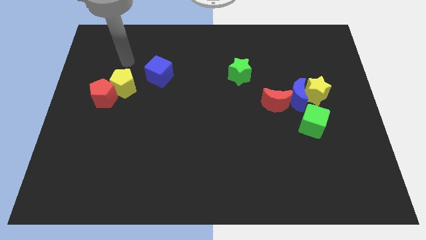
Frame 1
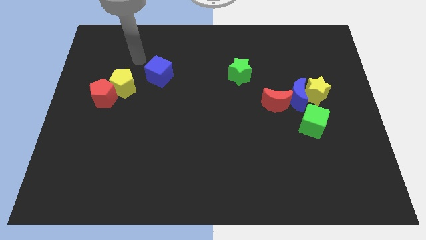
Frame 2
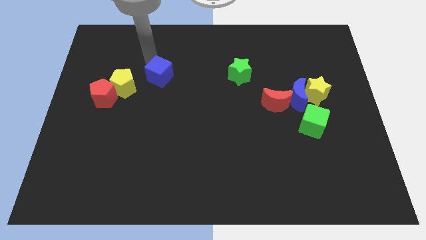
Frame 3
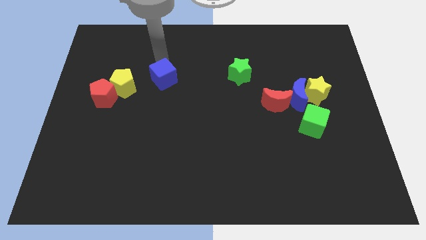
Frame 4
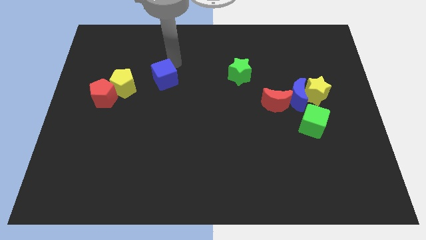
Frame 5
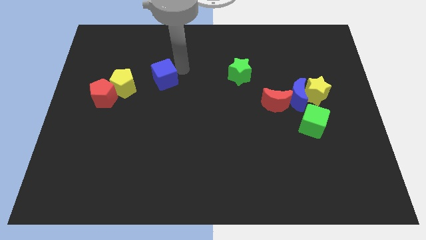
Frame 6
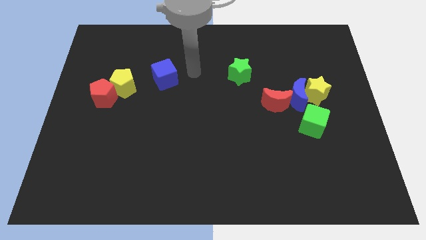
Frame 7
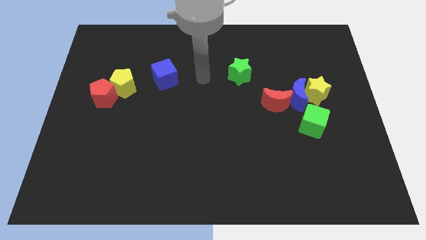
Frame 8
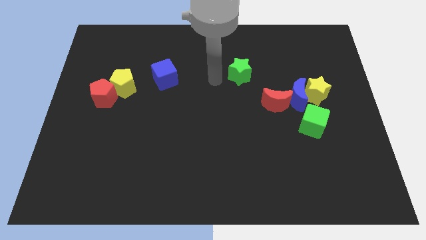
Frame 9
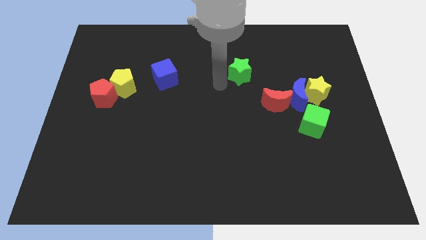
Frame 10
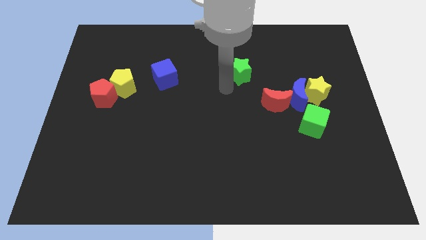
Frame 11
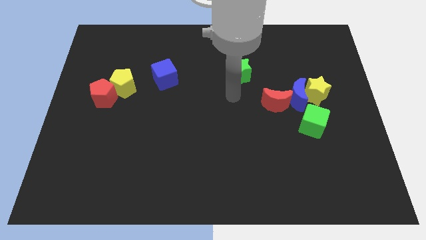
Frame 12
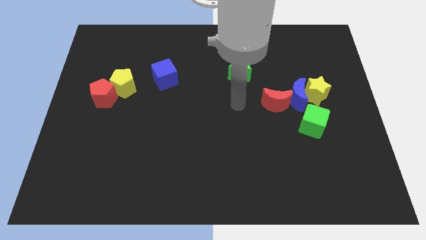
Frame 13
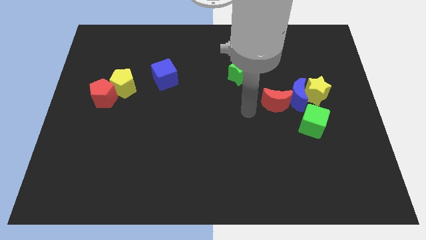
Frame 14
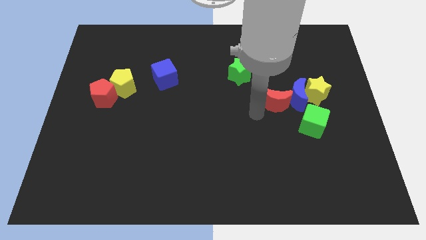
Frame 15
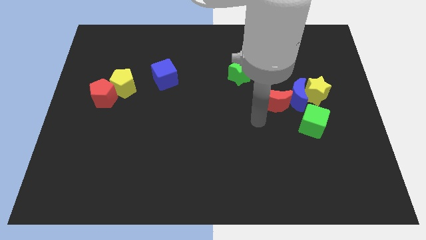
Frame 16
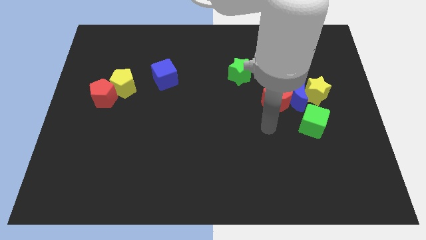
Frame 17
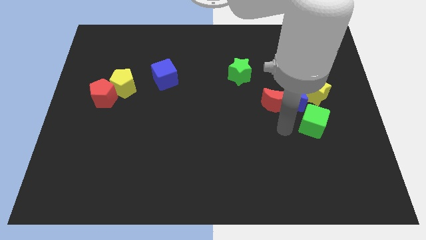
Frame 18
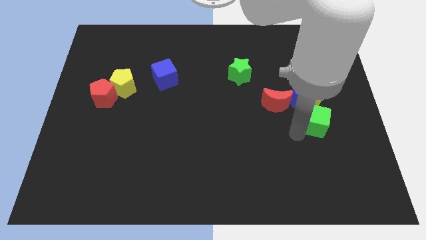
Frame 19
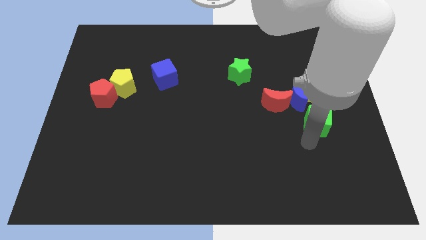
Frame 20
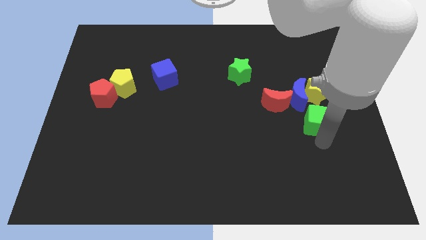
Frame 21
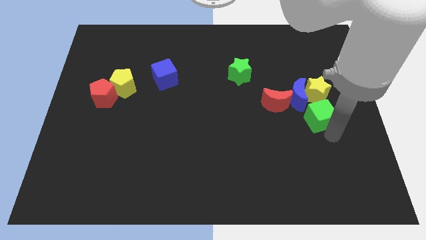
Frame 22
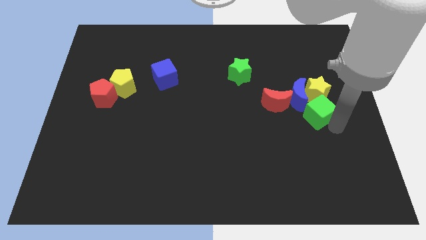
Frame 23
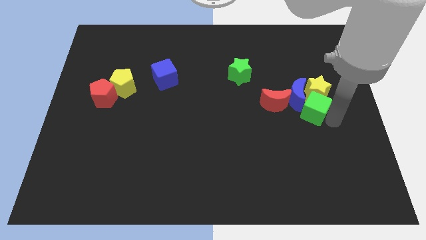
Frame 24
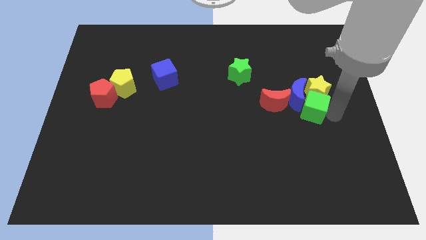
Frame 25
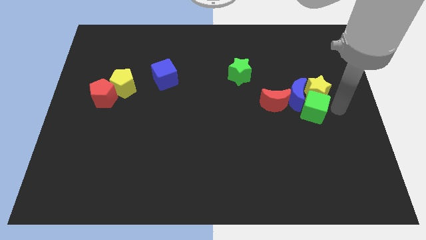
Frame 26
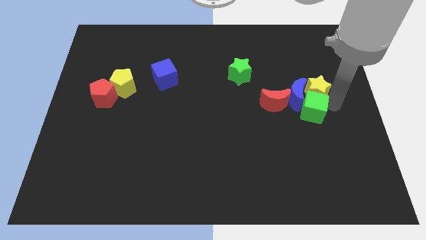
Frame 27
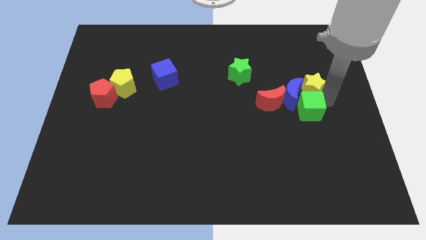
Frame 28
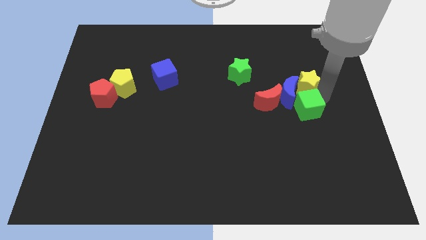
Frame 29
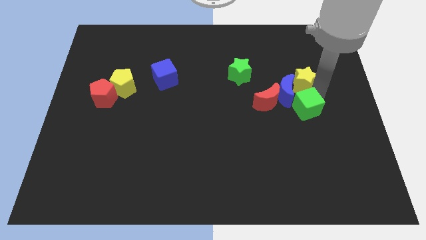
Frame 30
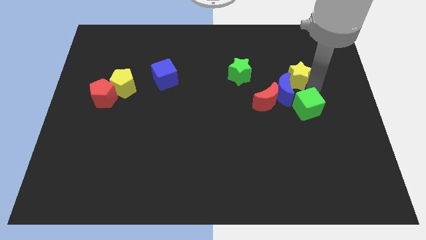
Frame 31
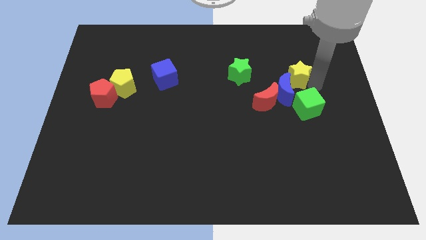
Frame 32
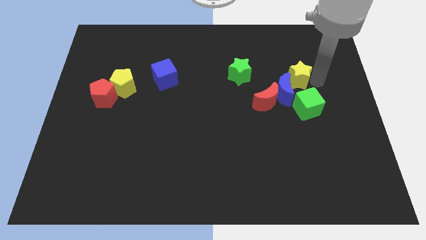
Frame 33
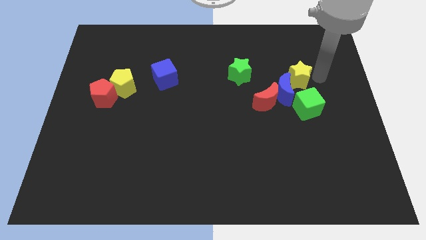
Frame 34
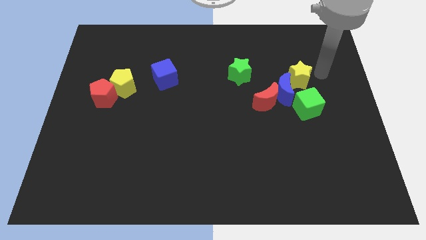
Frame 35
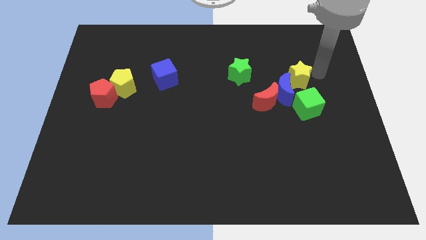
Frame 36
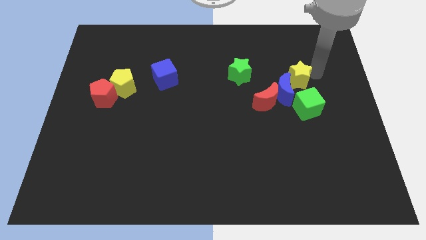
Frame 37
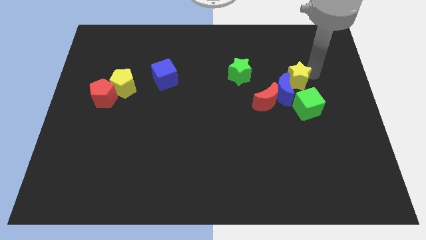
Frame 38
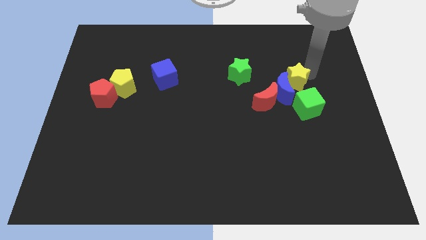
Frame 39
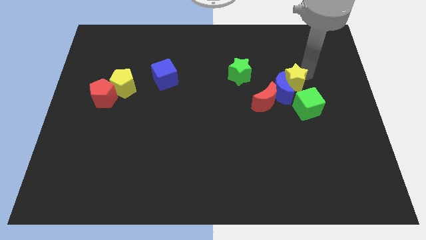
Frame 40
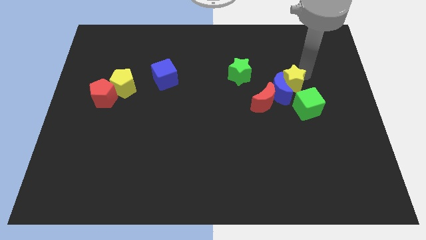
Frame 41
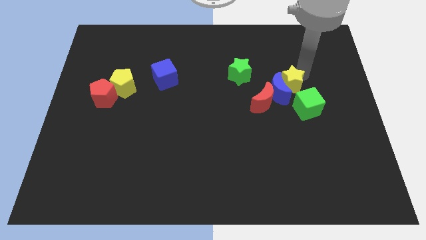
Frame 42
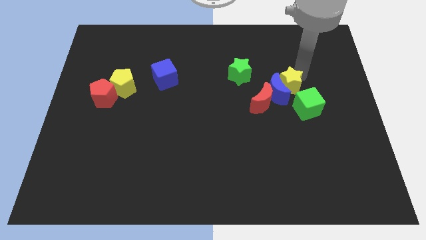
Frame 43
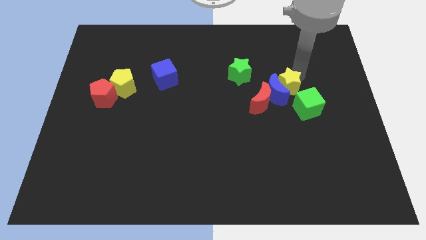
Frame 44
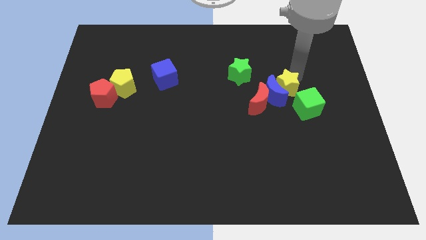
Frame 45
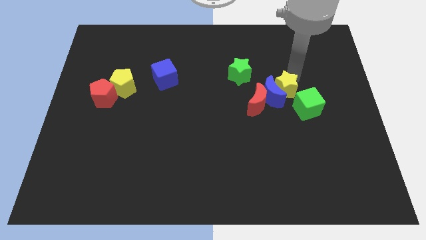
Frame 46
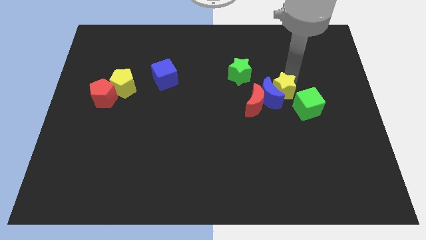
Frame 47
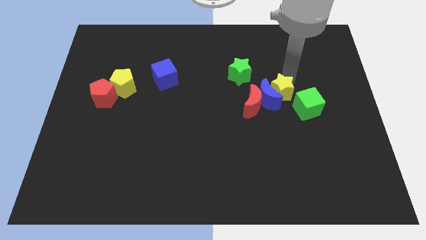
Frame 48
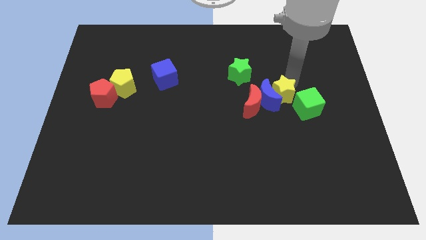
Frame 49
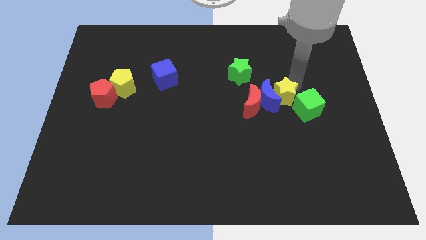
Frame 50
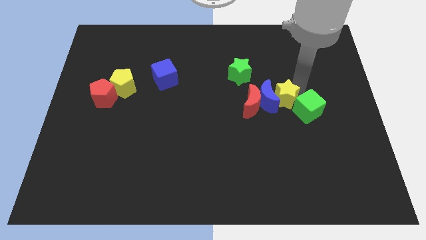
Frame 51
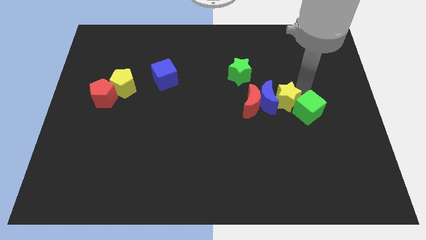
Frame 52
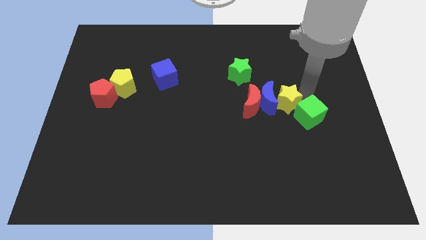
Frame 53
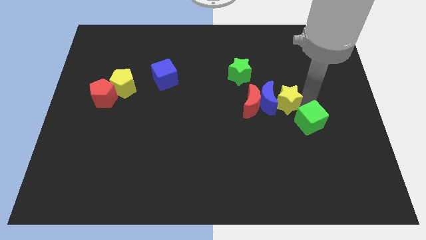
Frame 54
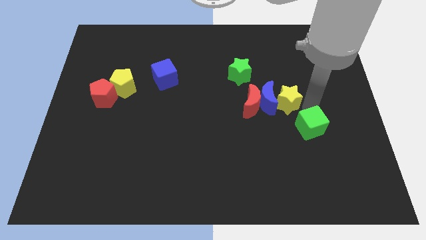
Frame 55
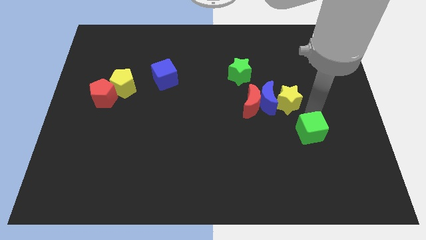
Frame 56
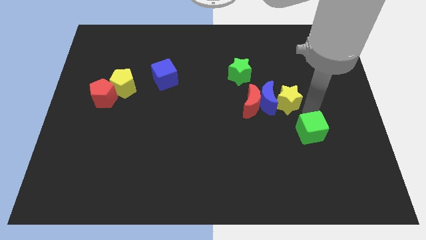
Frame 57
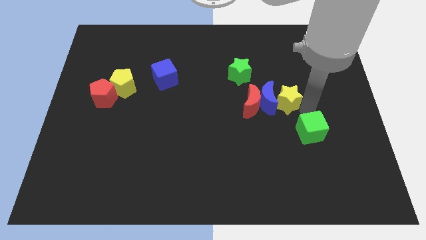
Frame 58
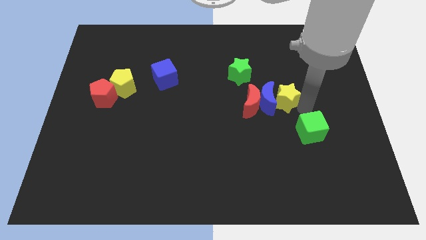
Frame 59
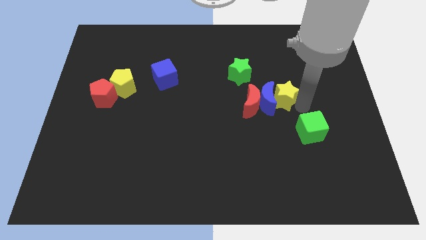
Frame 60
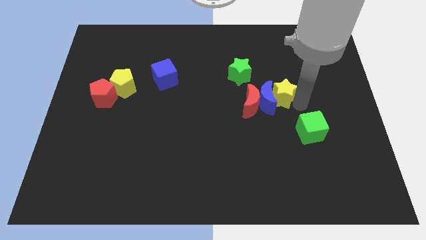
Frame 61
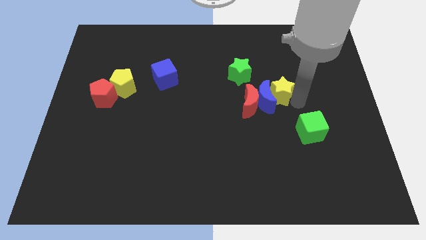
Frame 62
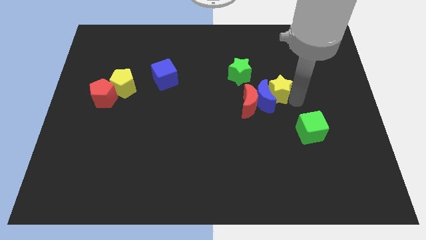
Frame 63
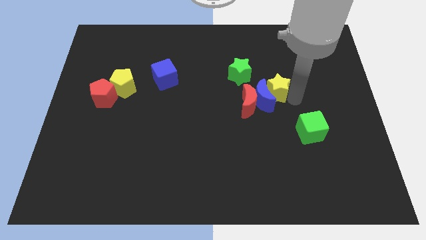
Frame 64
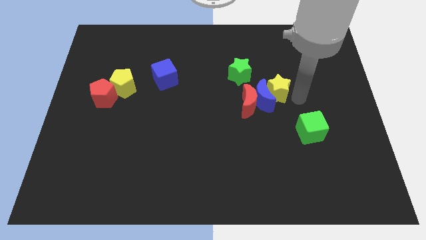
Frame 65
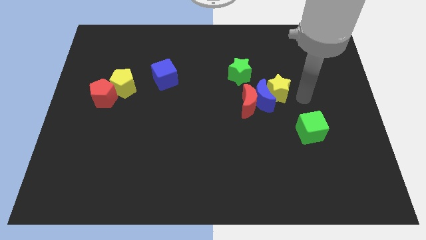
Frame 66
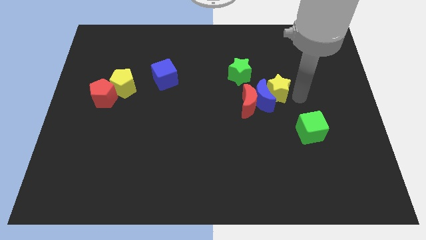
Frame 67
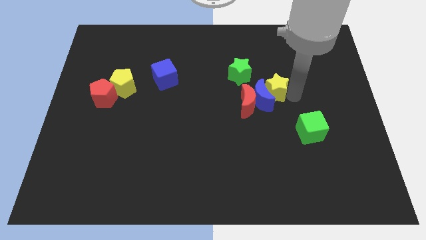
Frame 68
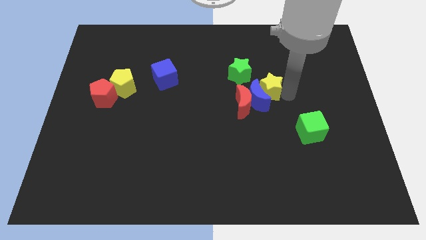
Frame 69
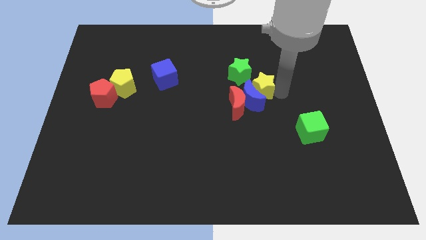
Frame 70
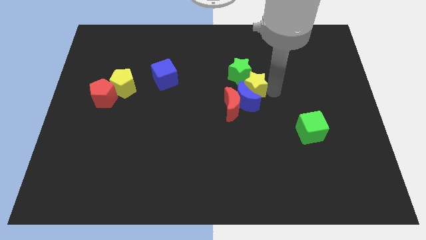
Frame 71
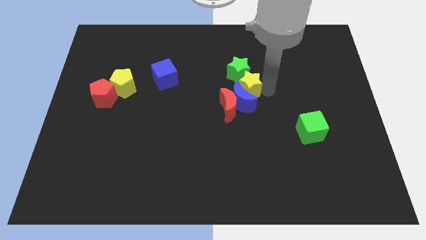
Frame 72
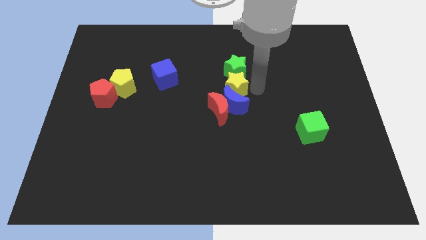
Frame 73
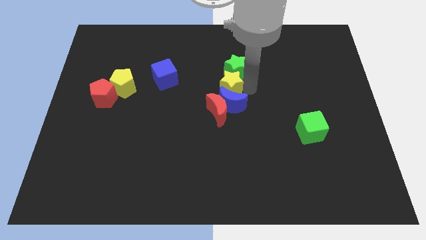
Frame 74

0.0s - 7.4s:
move the yellow star to the left

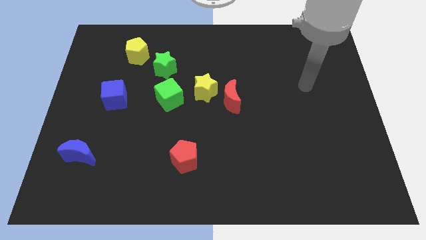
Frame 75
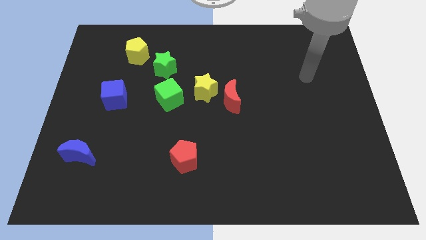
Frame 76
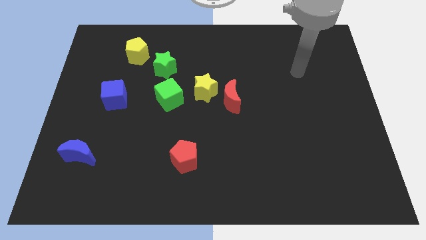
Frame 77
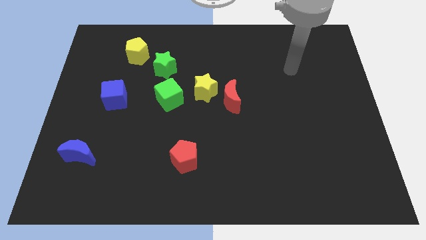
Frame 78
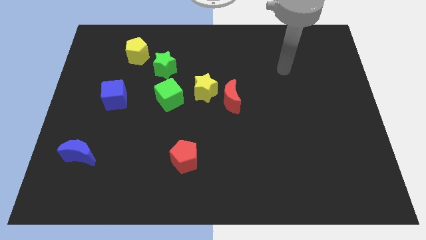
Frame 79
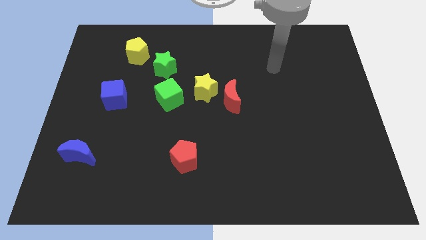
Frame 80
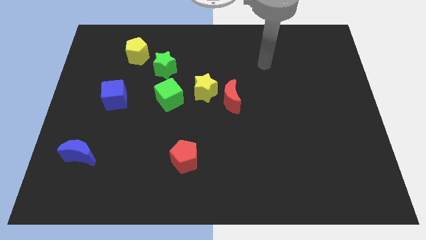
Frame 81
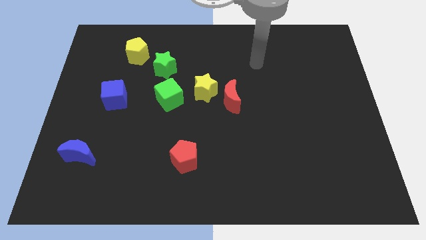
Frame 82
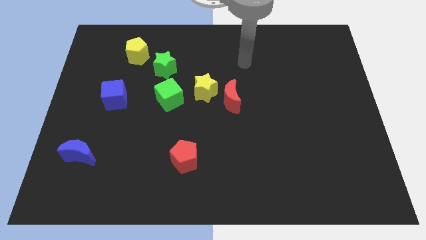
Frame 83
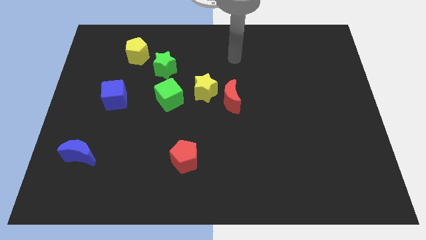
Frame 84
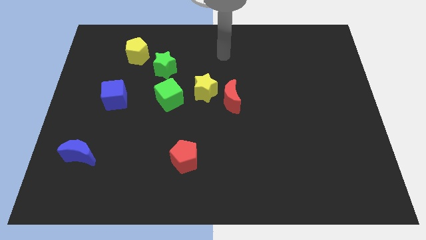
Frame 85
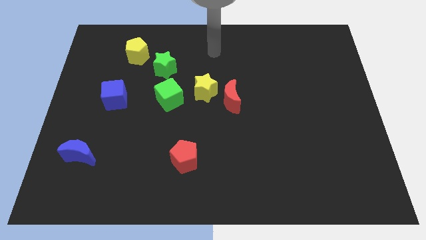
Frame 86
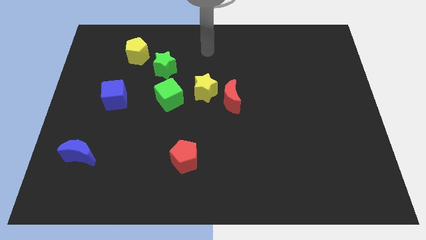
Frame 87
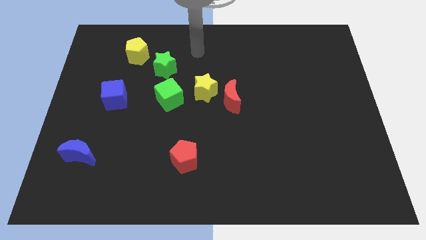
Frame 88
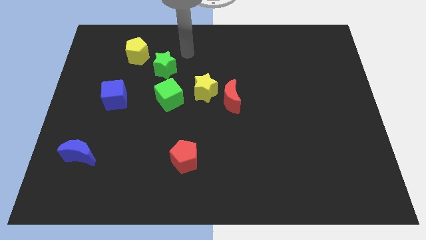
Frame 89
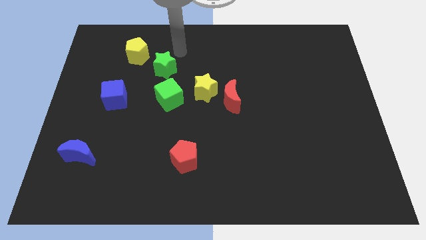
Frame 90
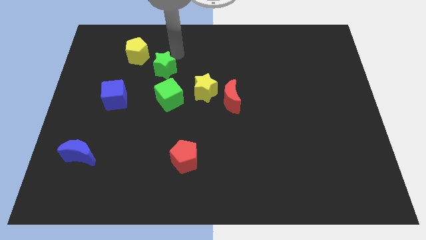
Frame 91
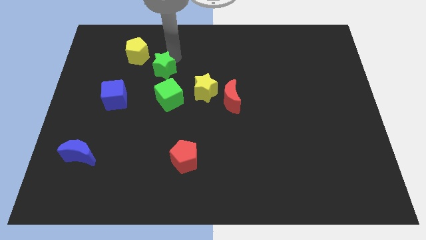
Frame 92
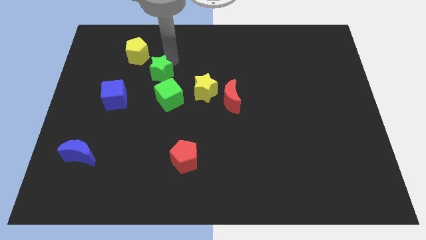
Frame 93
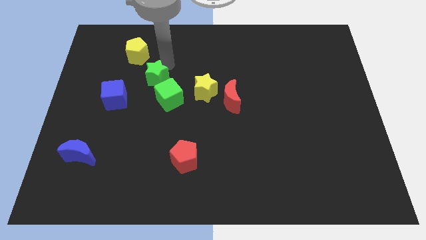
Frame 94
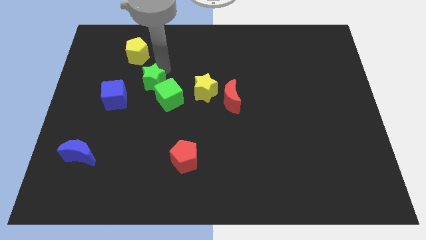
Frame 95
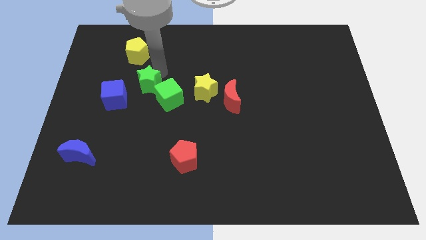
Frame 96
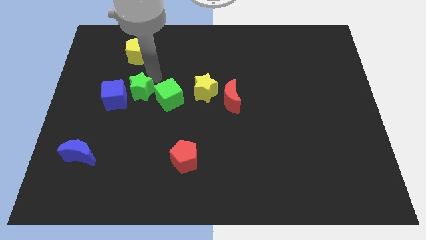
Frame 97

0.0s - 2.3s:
slightly move the green star downwards and to the left
